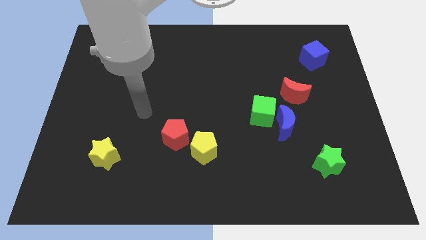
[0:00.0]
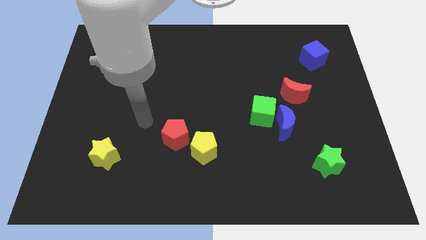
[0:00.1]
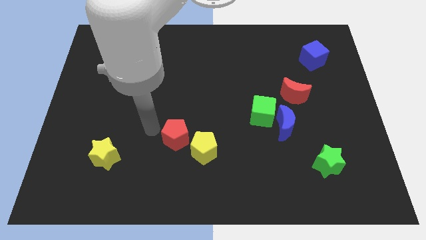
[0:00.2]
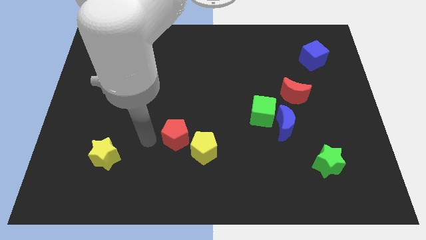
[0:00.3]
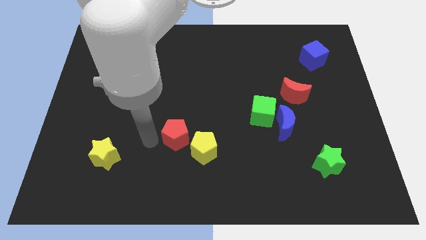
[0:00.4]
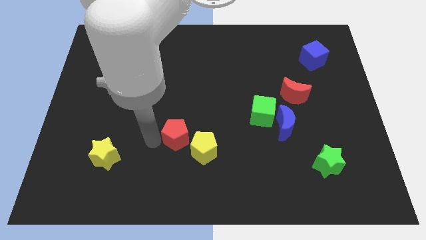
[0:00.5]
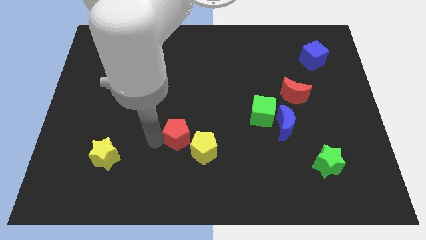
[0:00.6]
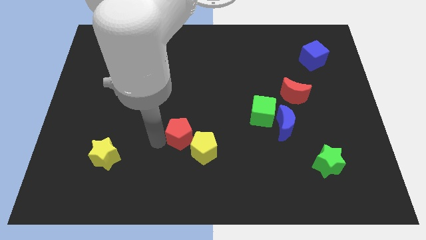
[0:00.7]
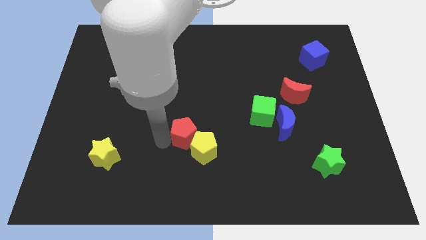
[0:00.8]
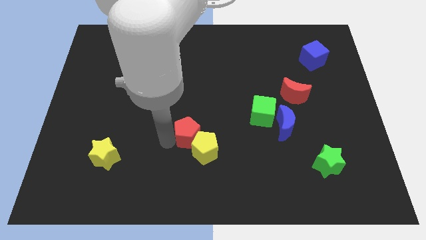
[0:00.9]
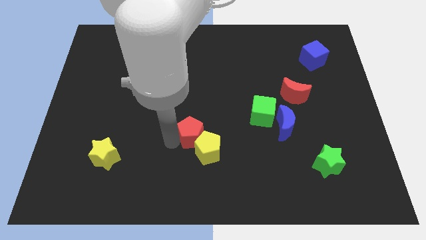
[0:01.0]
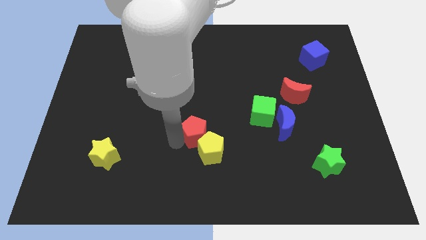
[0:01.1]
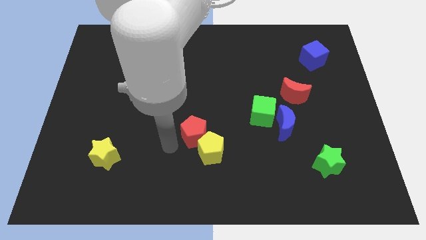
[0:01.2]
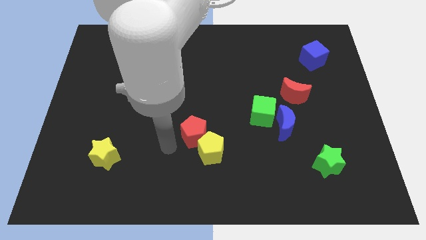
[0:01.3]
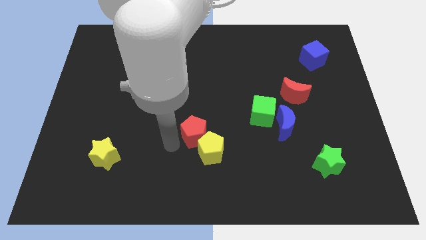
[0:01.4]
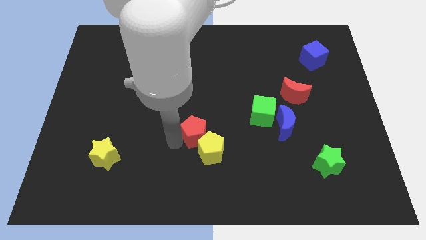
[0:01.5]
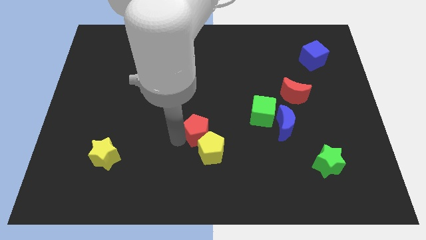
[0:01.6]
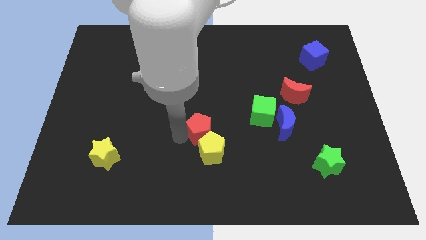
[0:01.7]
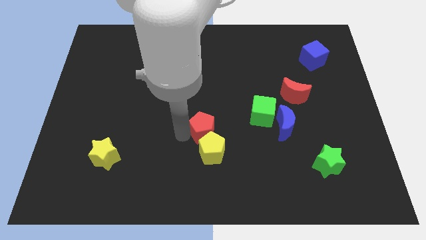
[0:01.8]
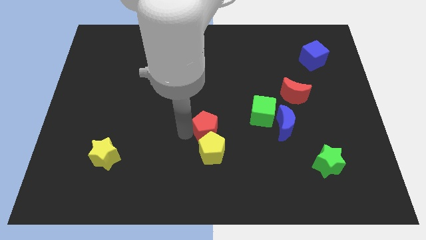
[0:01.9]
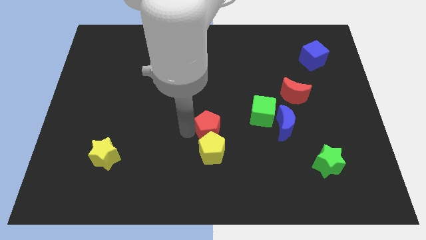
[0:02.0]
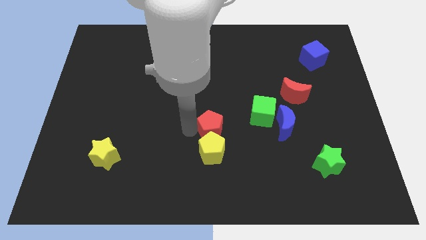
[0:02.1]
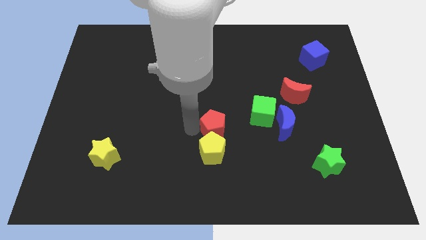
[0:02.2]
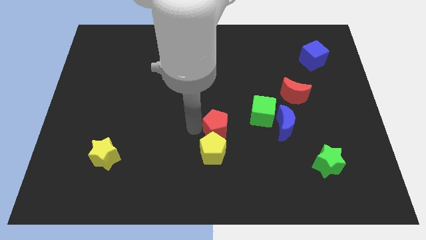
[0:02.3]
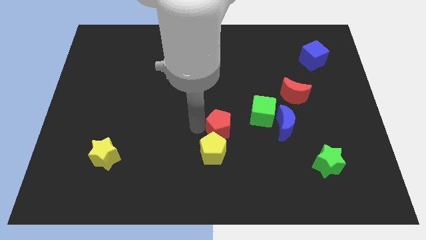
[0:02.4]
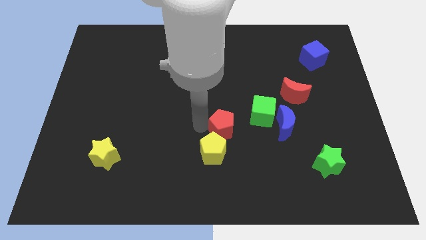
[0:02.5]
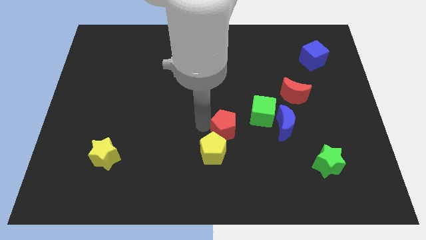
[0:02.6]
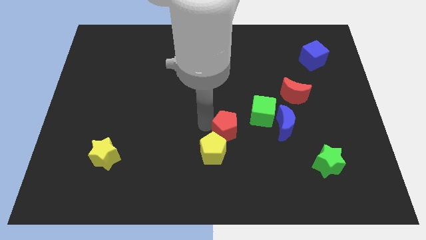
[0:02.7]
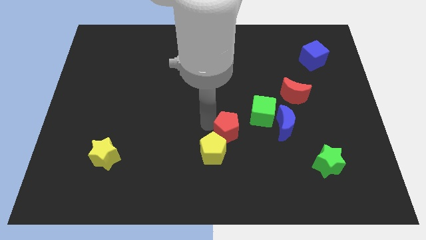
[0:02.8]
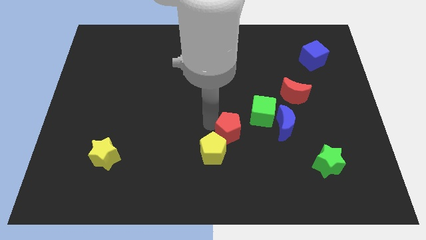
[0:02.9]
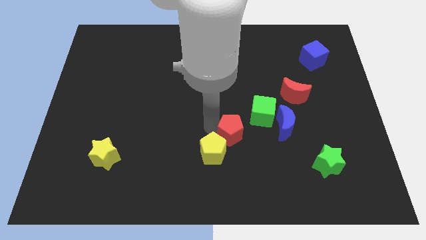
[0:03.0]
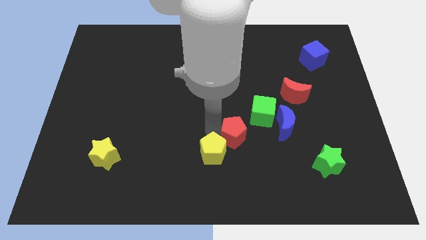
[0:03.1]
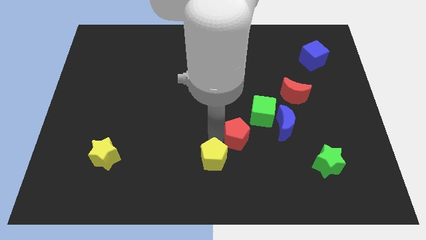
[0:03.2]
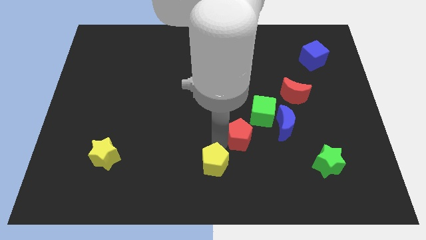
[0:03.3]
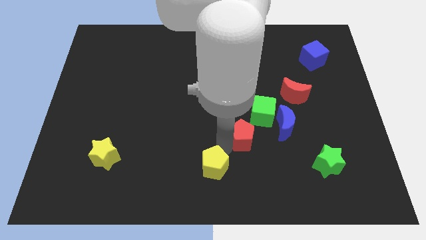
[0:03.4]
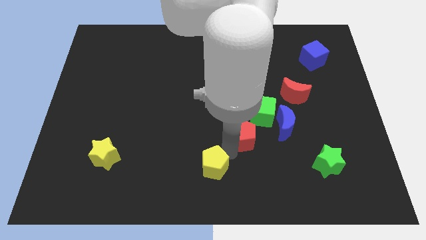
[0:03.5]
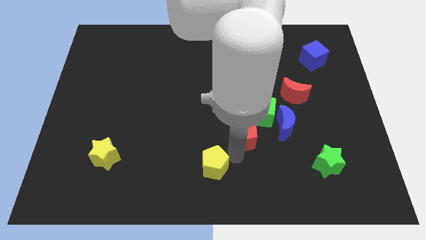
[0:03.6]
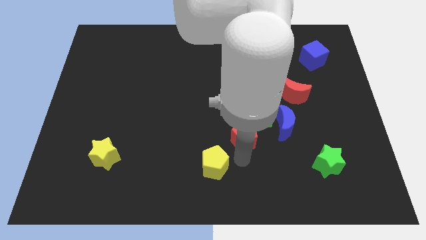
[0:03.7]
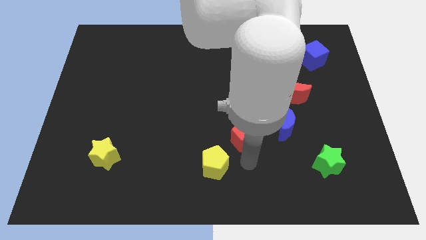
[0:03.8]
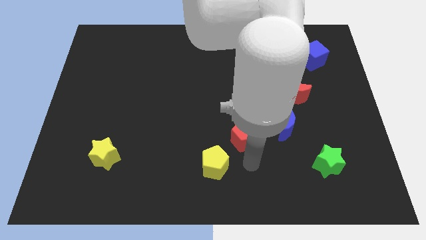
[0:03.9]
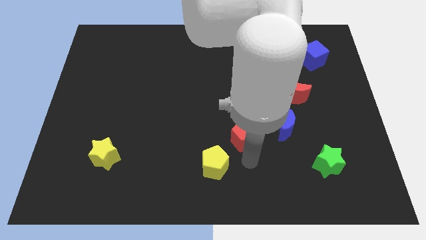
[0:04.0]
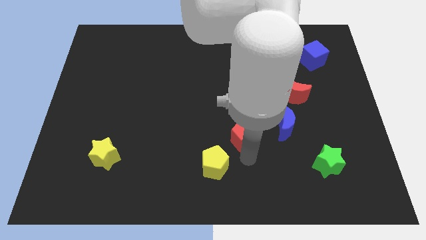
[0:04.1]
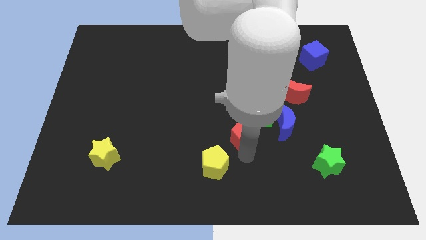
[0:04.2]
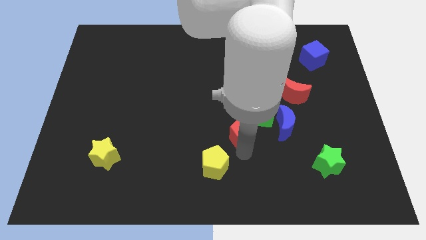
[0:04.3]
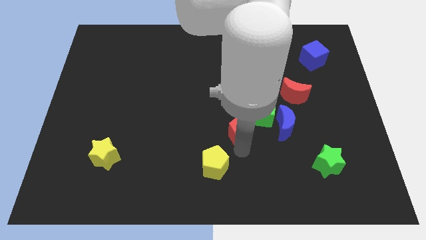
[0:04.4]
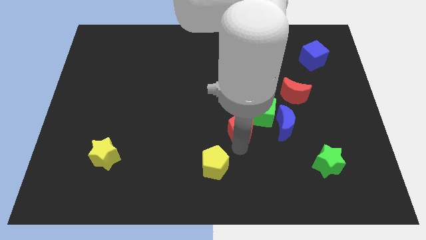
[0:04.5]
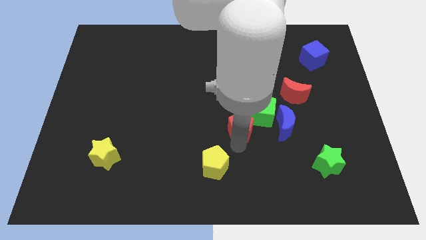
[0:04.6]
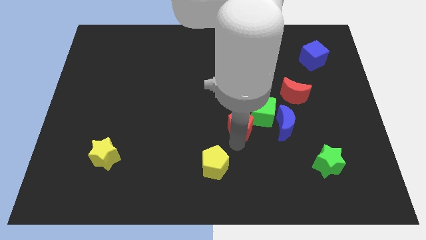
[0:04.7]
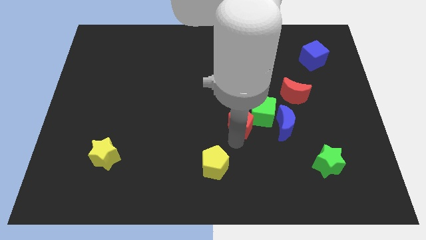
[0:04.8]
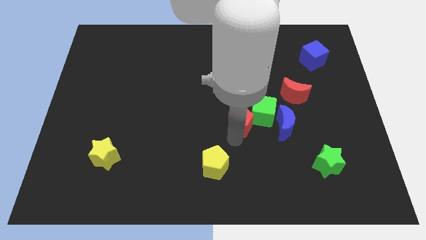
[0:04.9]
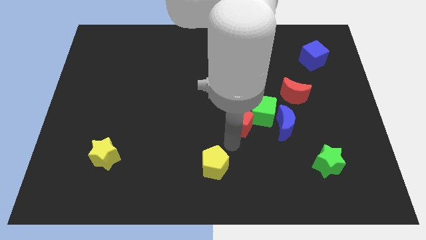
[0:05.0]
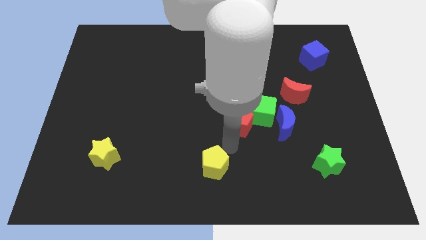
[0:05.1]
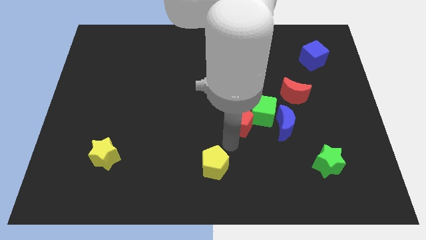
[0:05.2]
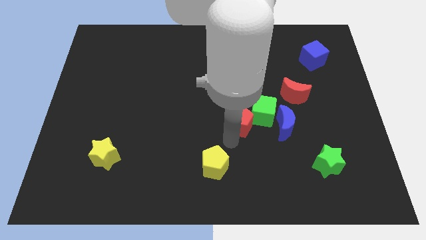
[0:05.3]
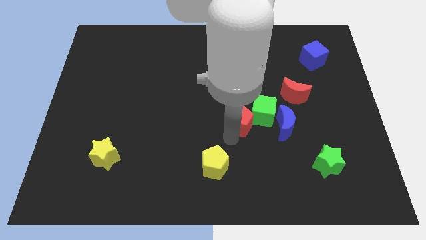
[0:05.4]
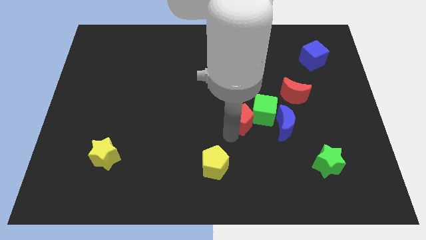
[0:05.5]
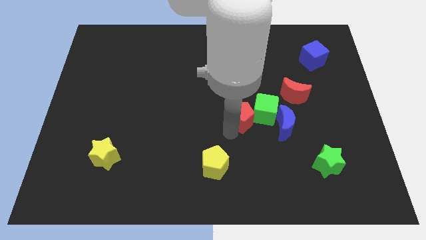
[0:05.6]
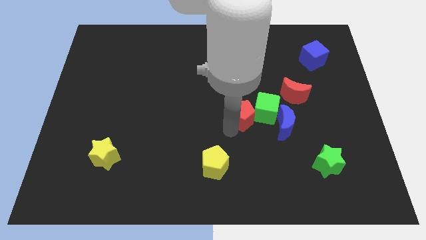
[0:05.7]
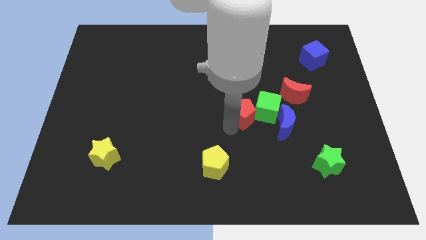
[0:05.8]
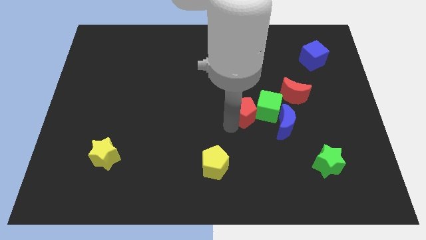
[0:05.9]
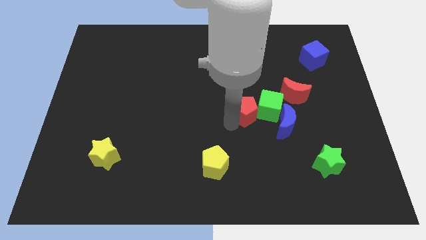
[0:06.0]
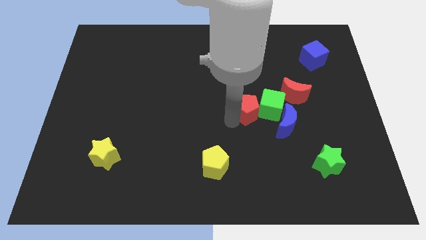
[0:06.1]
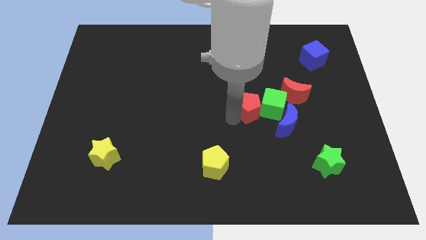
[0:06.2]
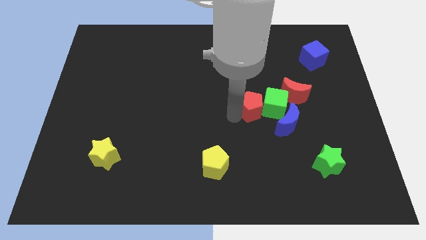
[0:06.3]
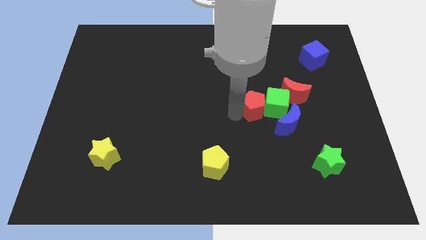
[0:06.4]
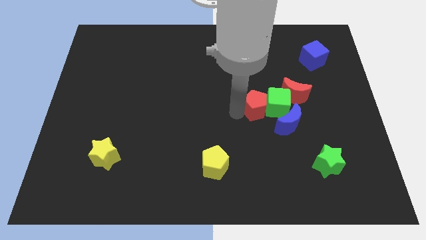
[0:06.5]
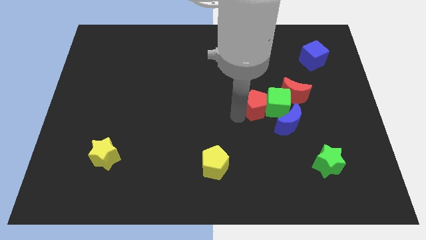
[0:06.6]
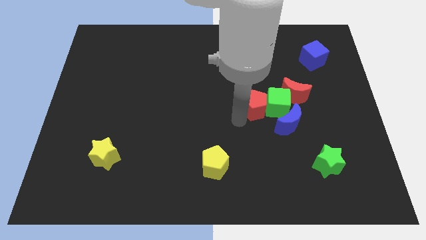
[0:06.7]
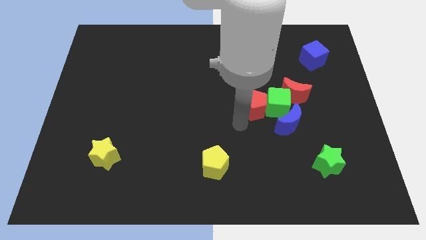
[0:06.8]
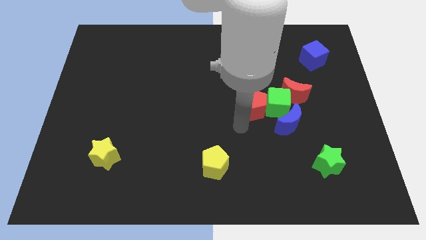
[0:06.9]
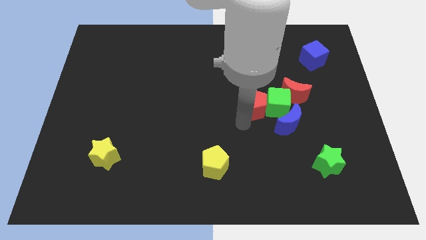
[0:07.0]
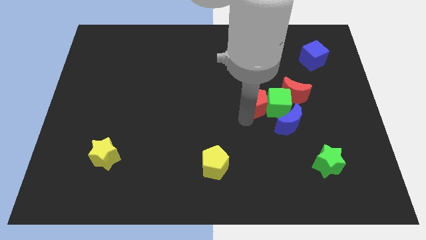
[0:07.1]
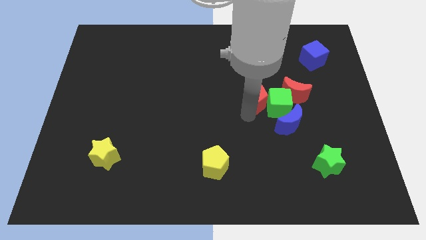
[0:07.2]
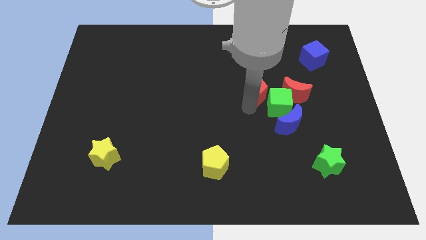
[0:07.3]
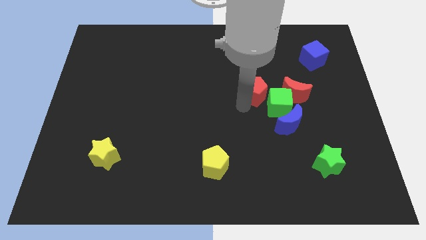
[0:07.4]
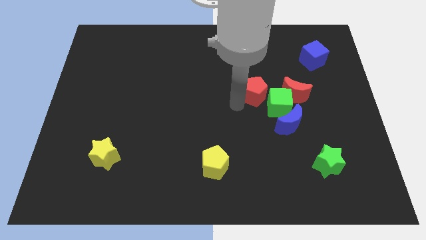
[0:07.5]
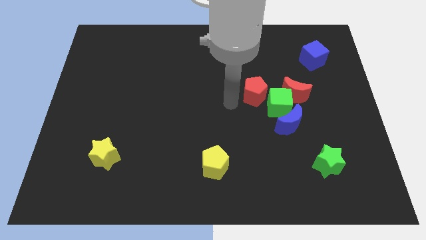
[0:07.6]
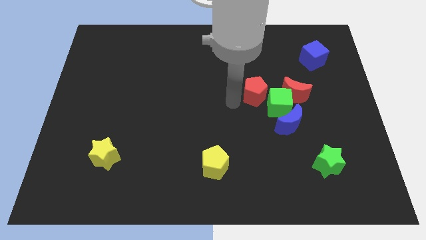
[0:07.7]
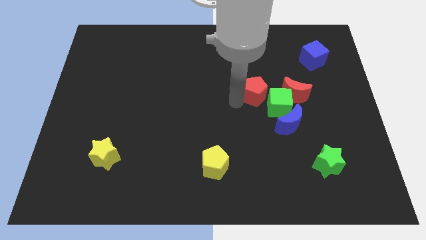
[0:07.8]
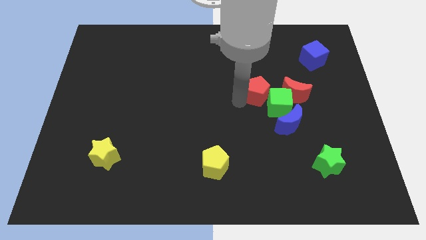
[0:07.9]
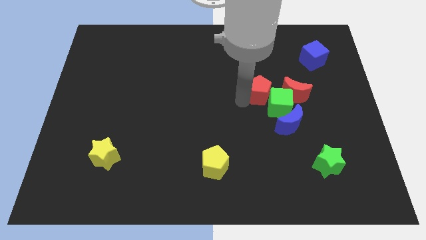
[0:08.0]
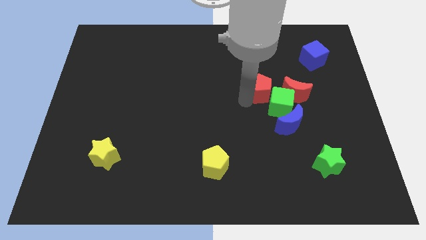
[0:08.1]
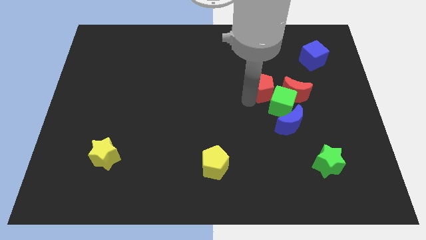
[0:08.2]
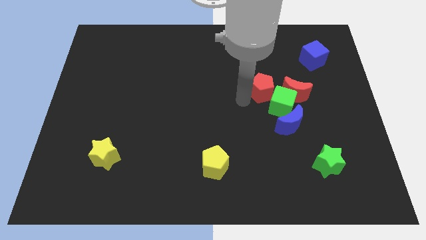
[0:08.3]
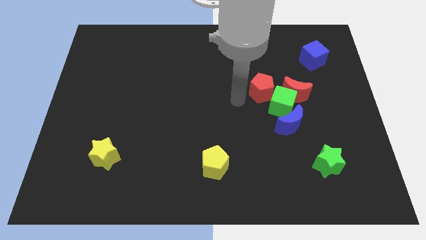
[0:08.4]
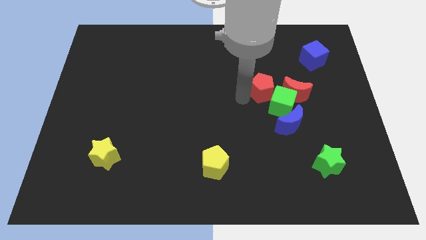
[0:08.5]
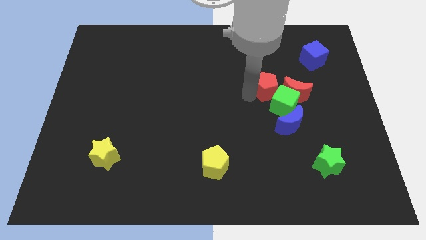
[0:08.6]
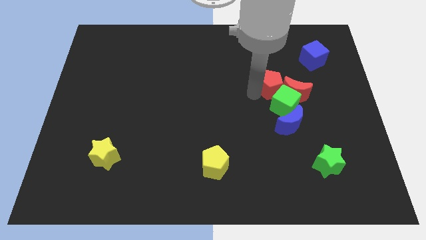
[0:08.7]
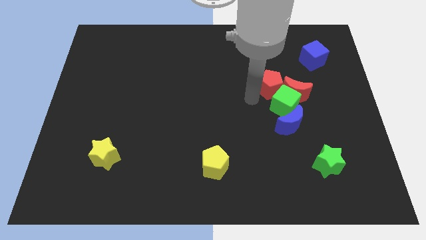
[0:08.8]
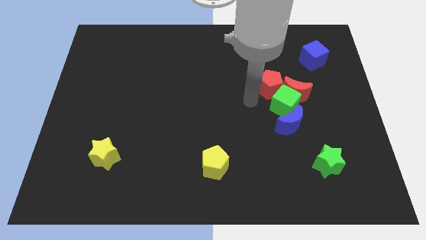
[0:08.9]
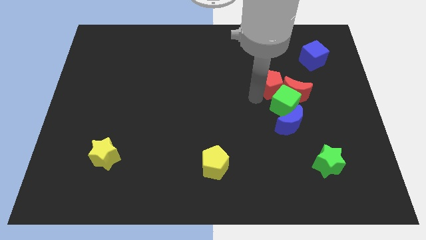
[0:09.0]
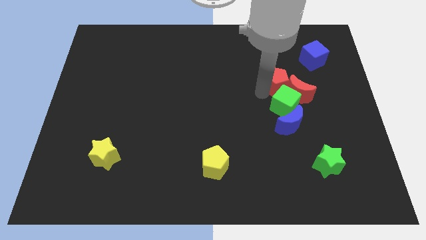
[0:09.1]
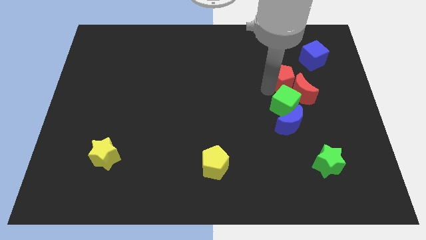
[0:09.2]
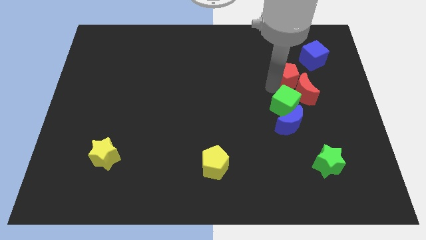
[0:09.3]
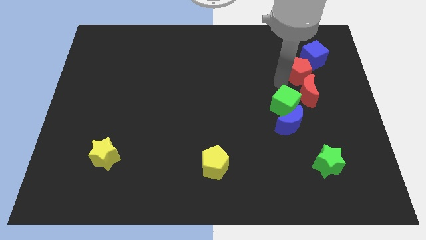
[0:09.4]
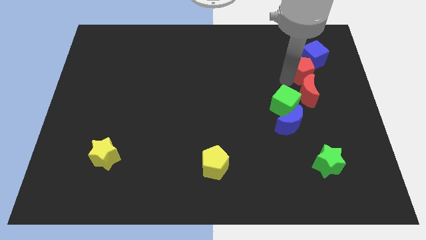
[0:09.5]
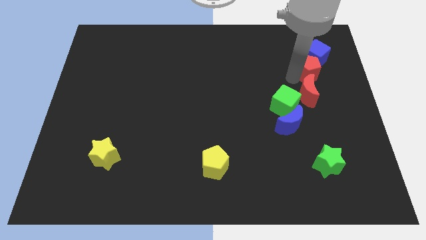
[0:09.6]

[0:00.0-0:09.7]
slide the red pentagon towards the blue cube
